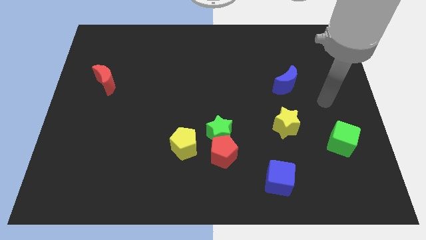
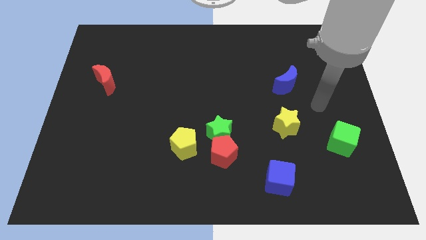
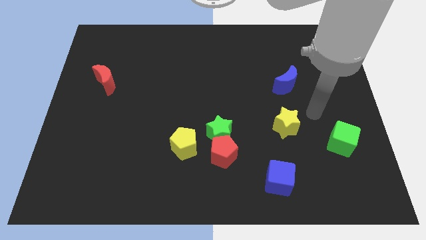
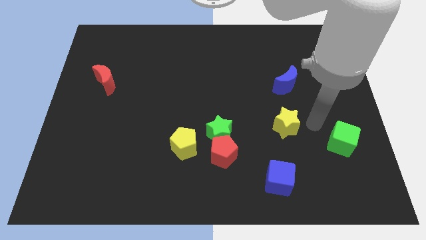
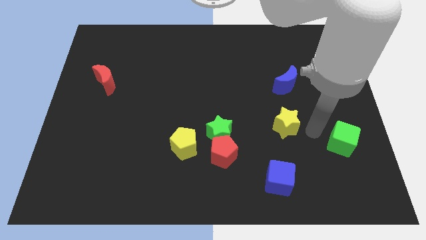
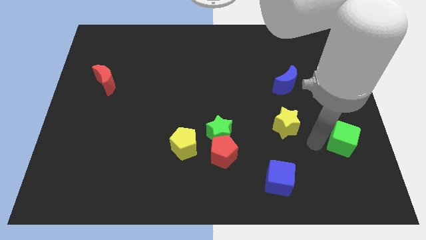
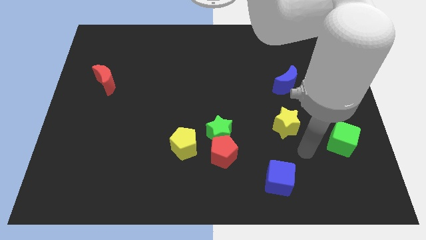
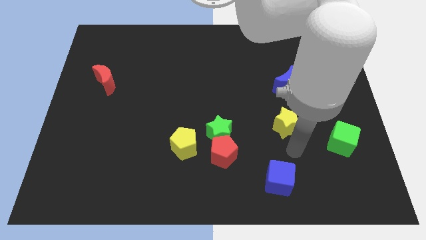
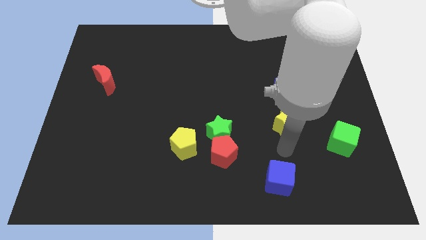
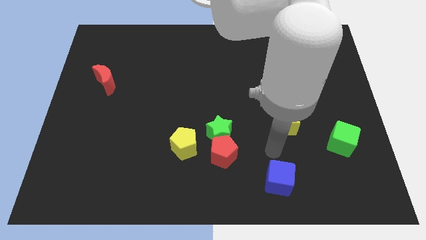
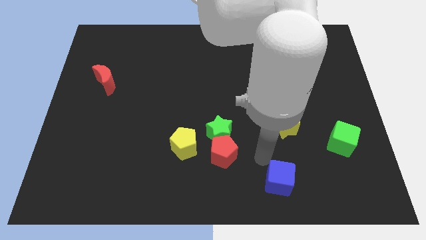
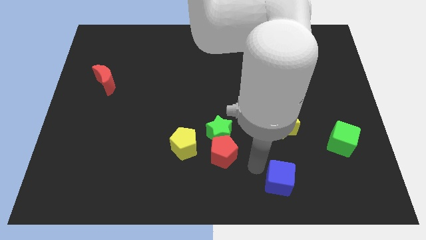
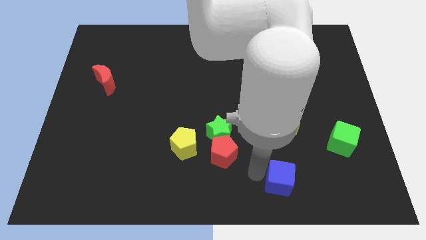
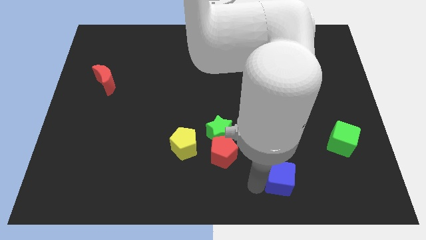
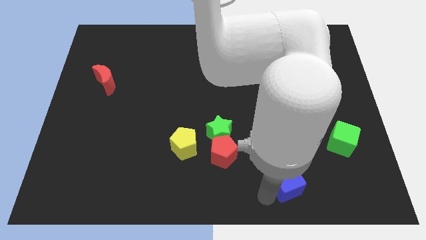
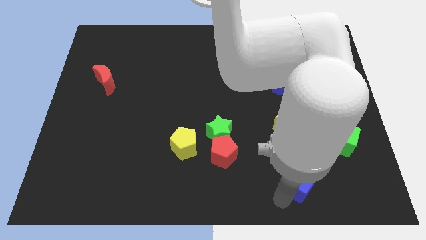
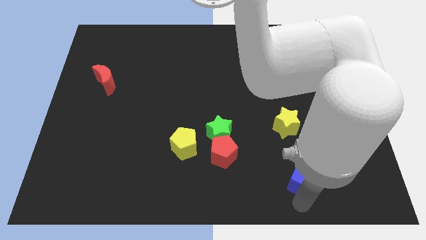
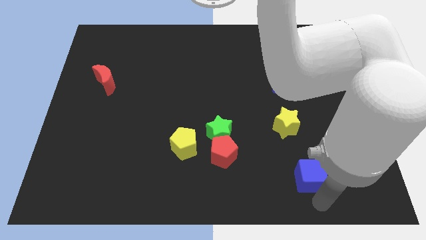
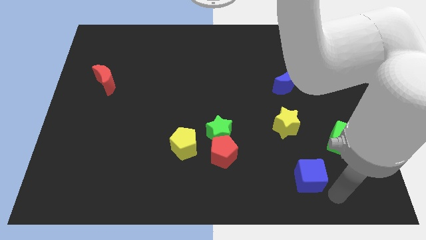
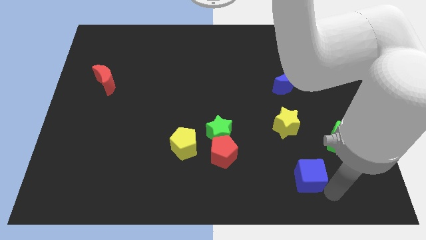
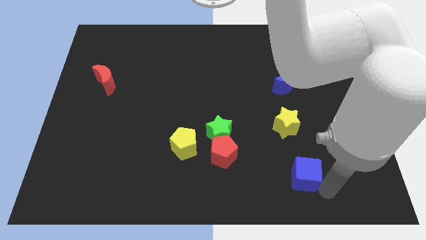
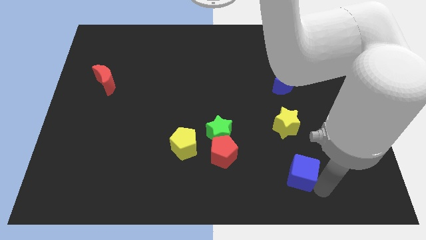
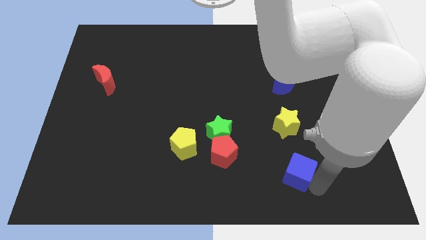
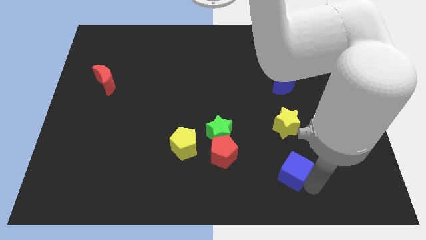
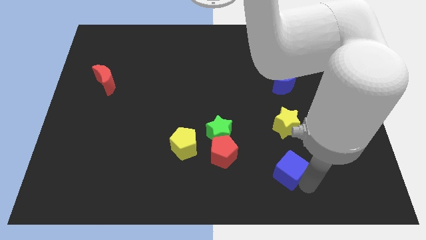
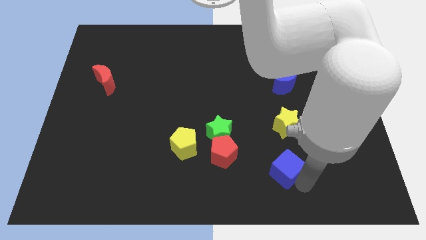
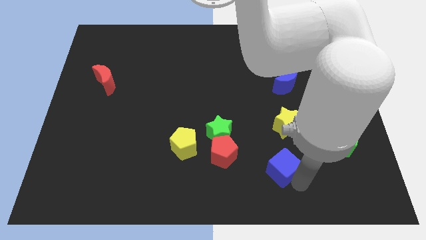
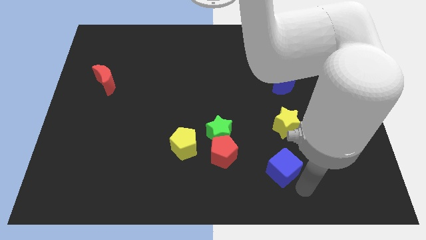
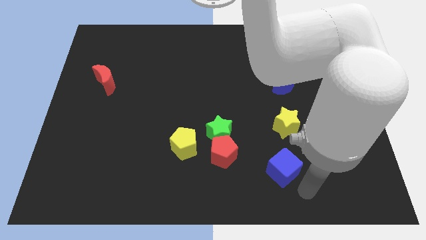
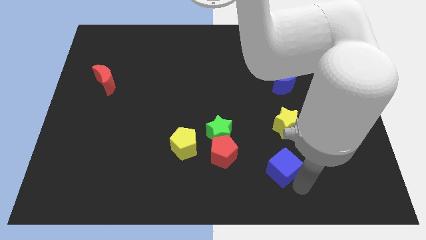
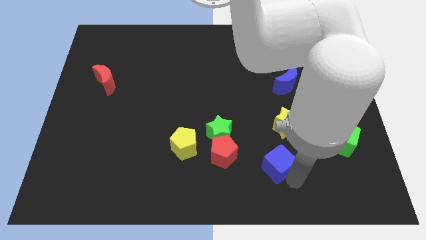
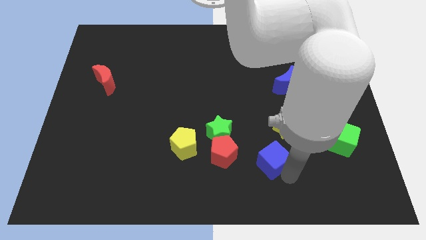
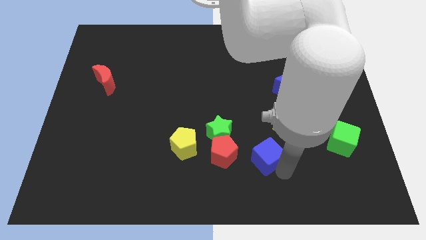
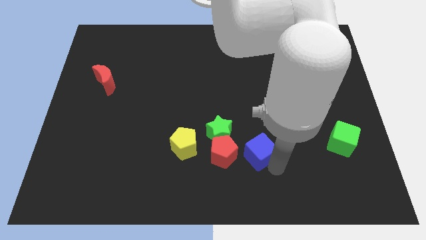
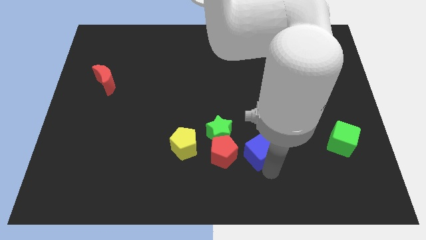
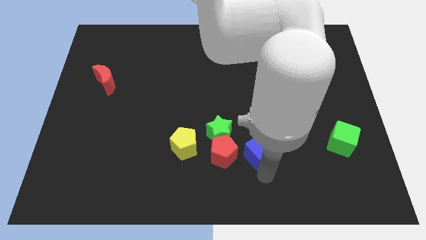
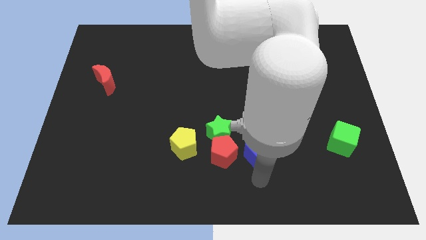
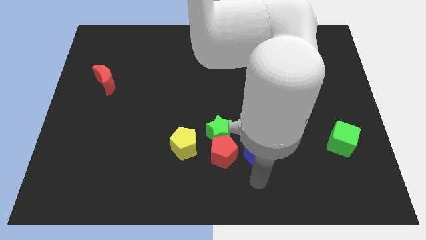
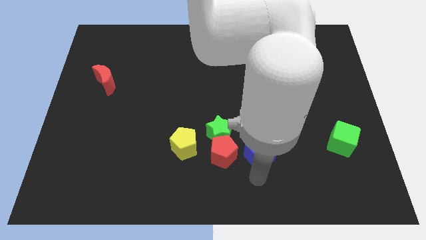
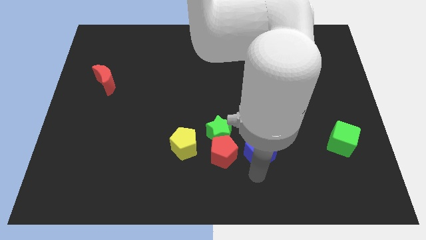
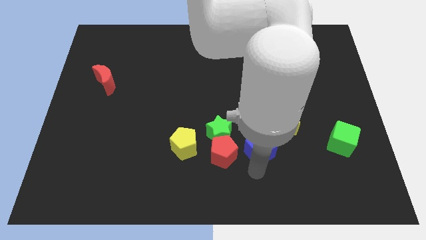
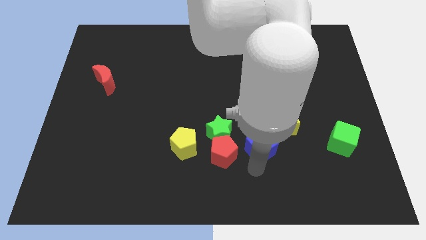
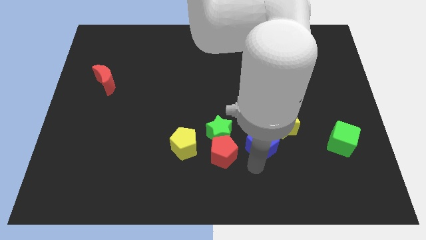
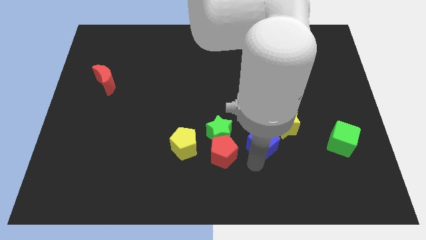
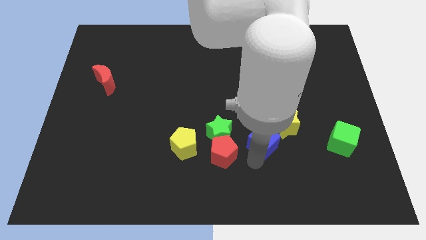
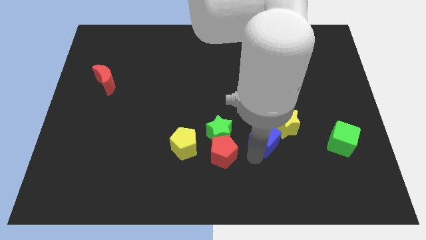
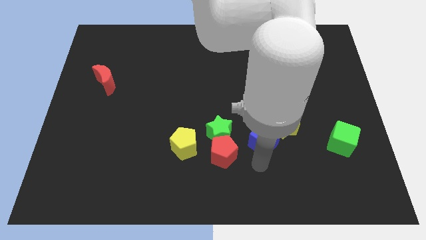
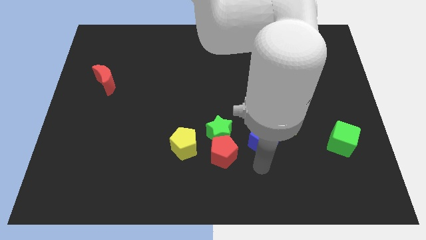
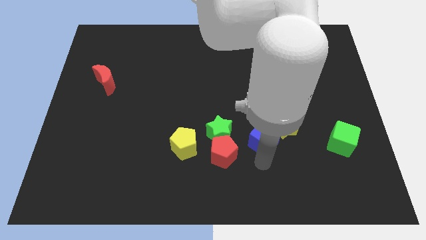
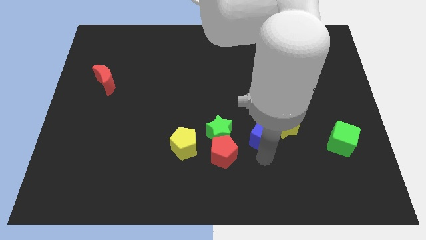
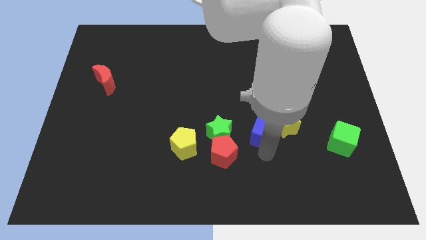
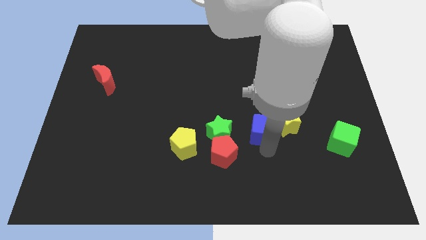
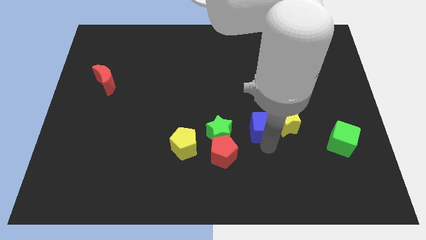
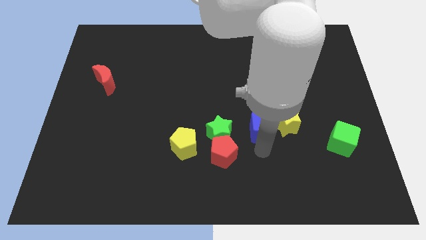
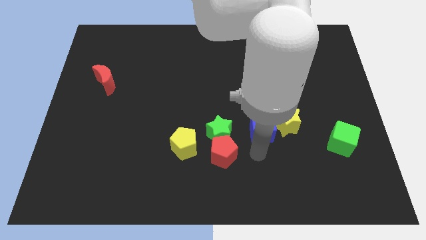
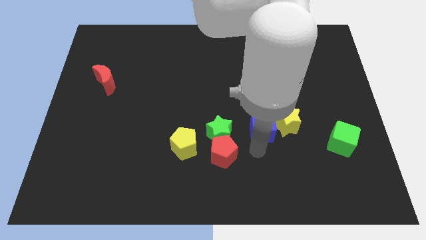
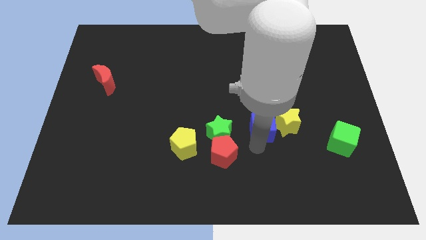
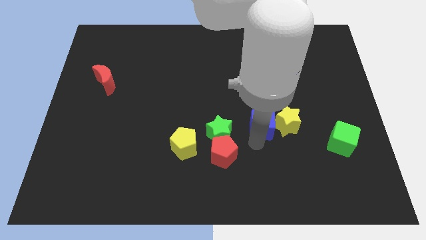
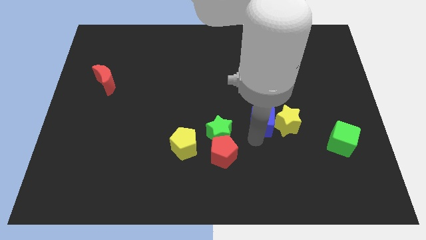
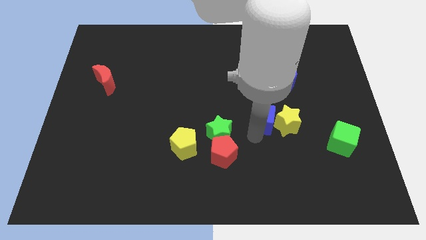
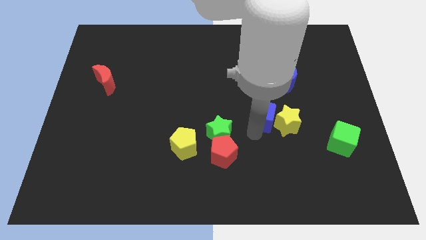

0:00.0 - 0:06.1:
push the blue cube diagonally down and to the left of the blue moon

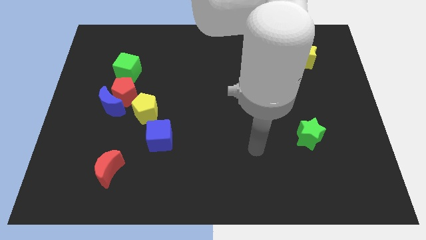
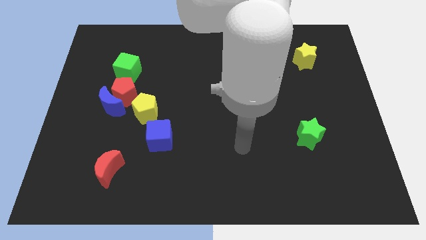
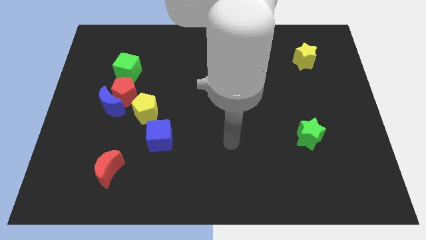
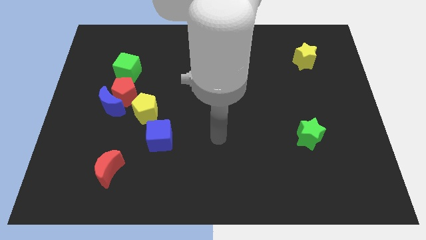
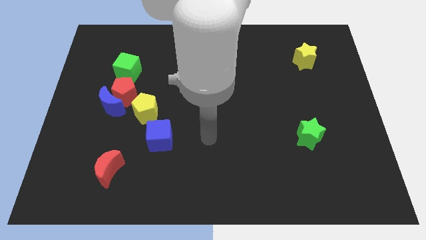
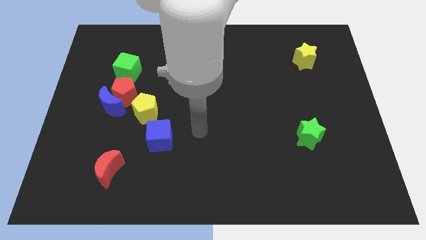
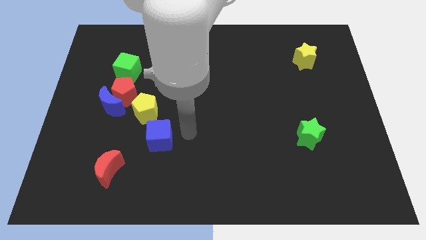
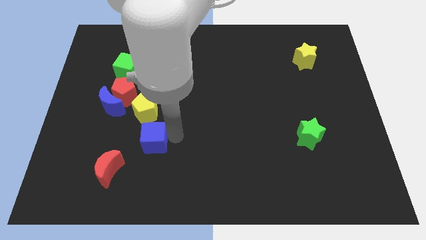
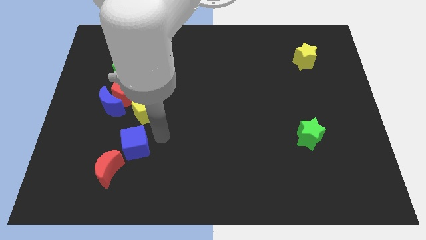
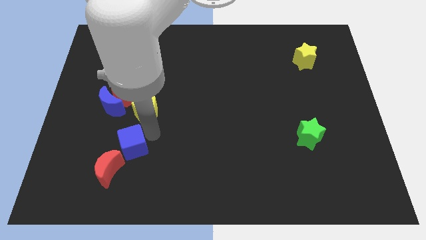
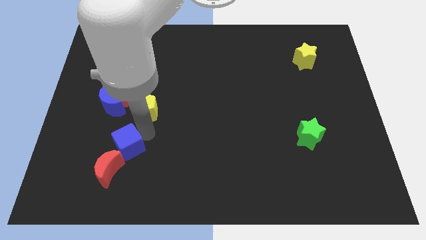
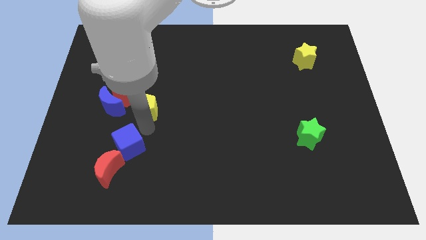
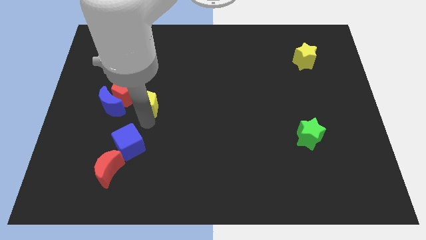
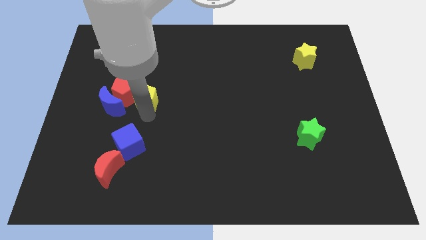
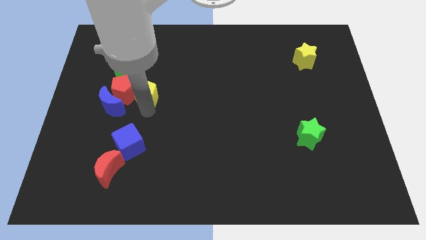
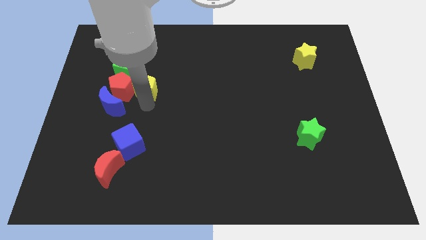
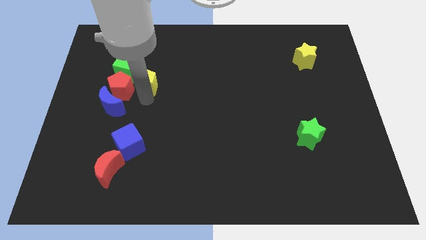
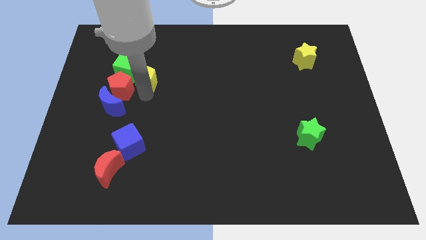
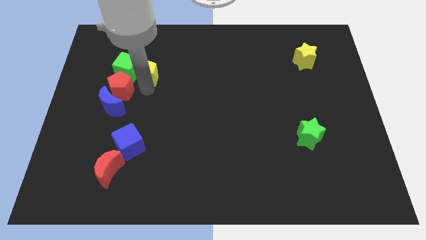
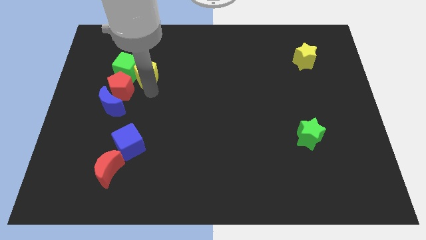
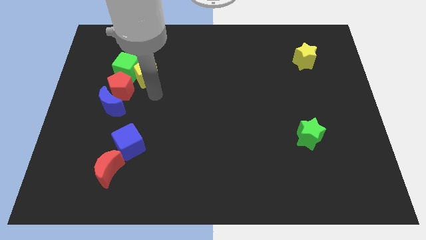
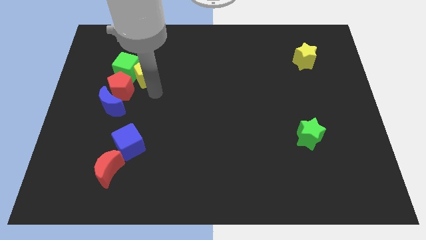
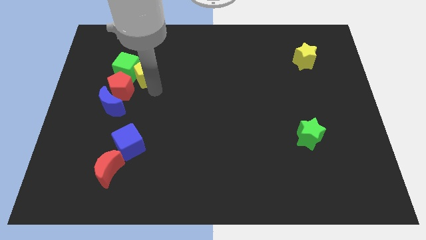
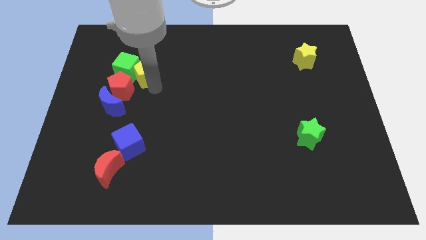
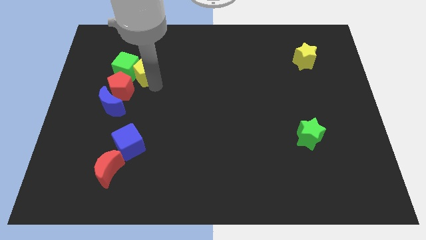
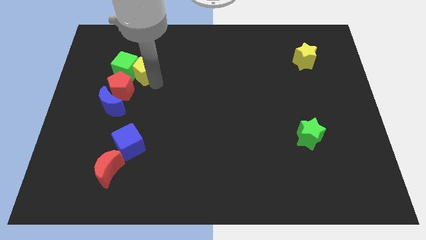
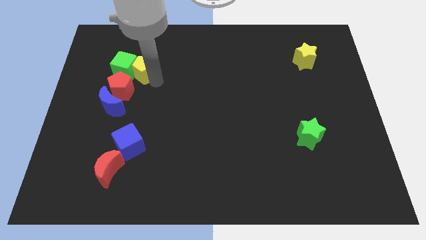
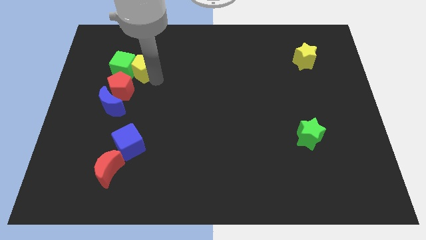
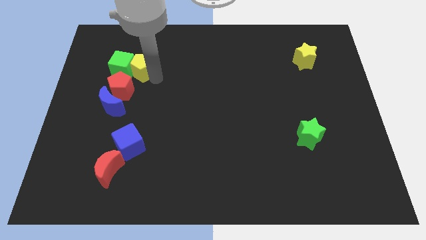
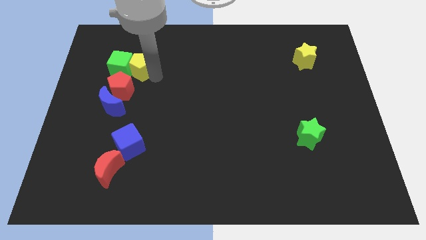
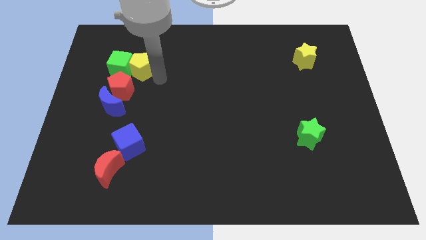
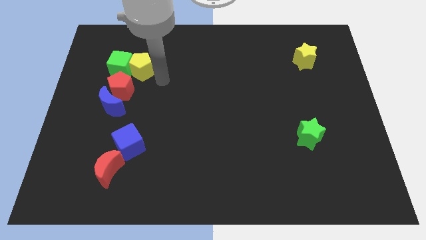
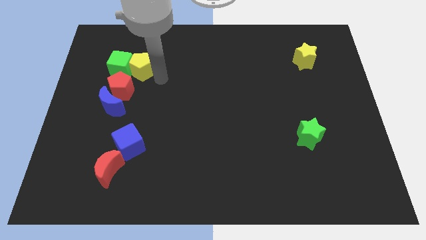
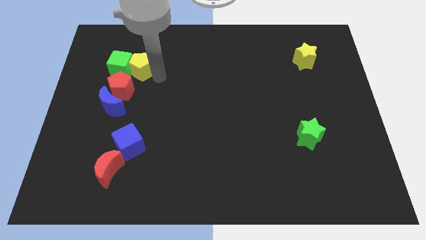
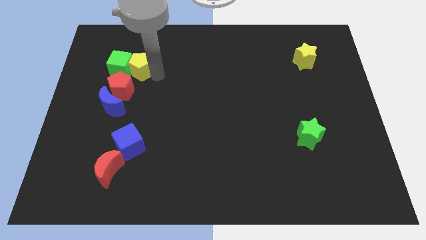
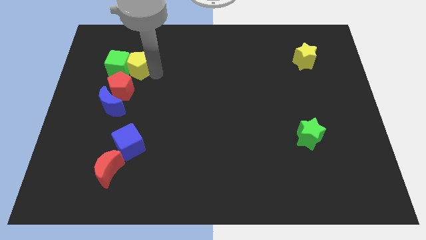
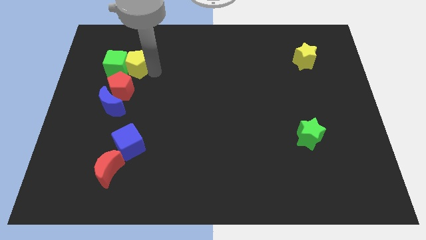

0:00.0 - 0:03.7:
put the yellow pentagon to the top of the blue moon
